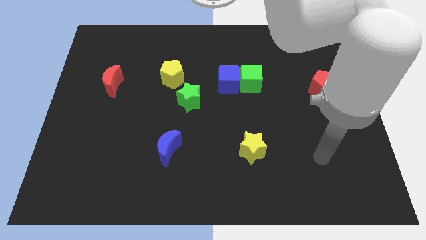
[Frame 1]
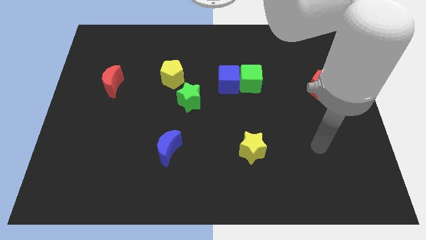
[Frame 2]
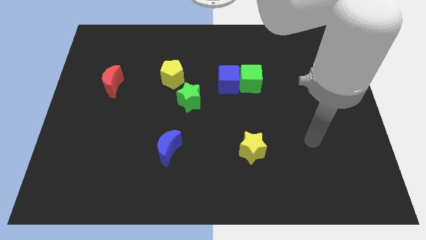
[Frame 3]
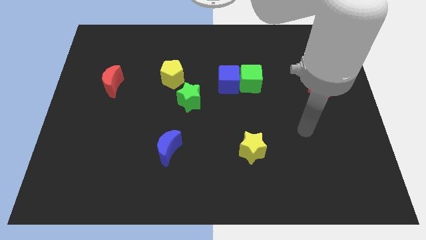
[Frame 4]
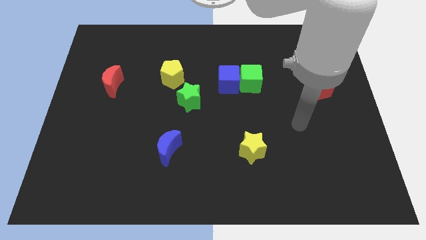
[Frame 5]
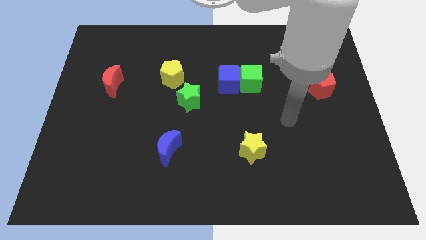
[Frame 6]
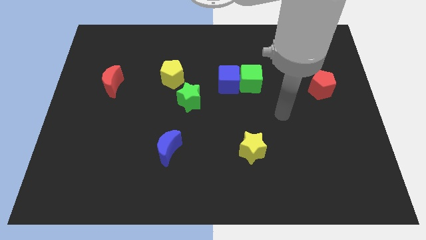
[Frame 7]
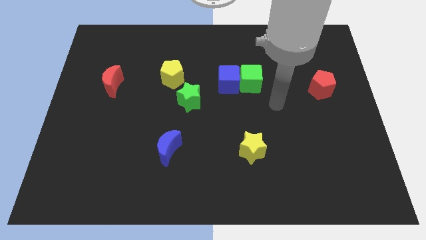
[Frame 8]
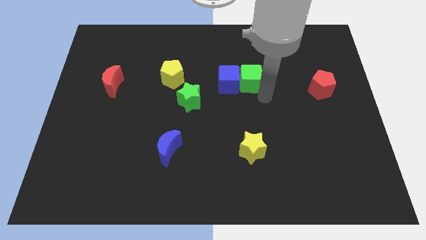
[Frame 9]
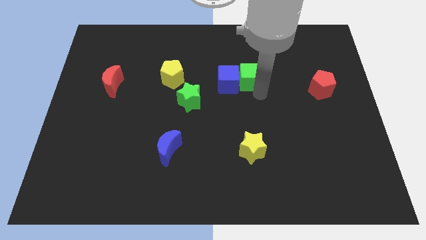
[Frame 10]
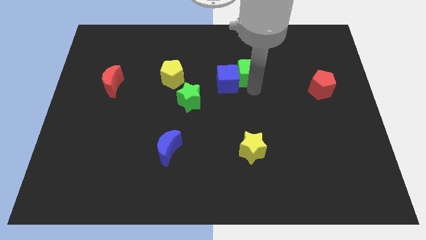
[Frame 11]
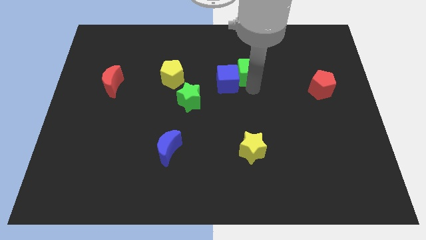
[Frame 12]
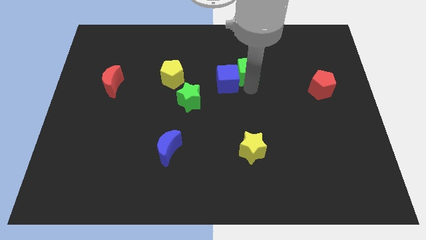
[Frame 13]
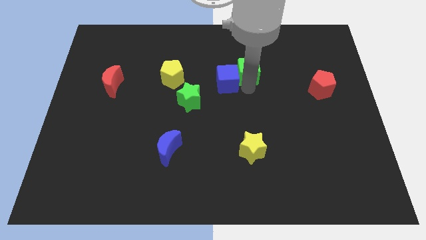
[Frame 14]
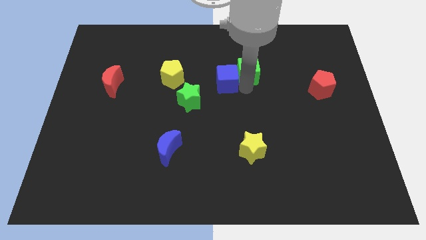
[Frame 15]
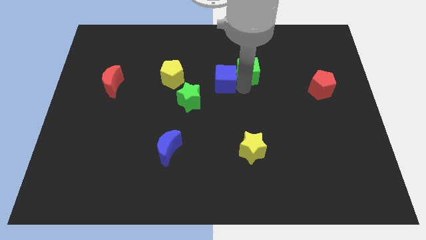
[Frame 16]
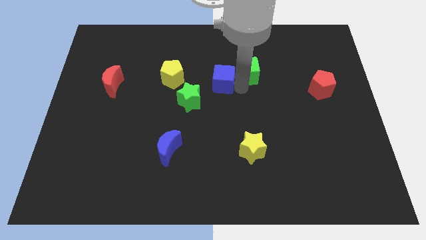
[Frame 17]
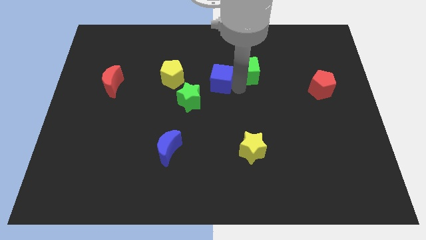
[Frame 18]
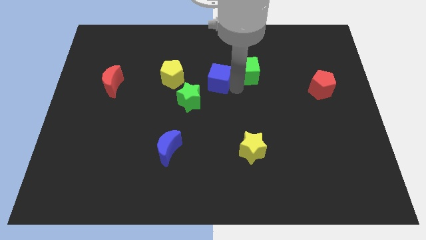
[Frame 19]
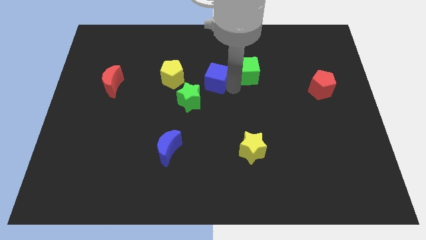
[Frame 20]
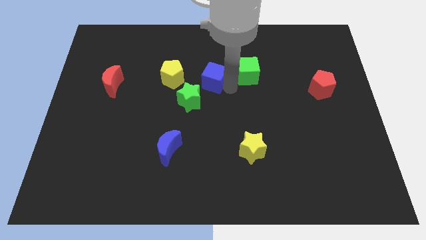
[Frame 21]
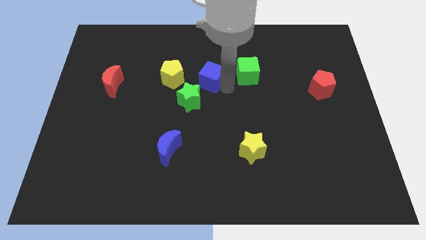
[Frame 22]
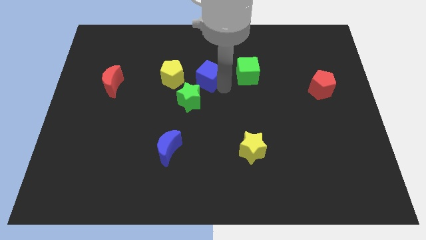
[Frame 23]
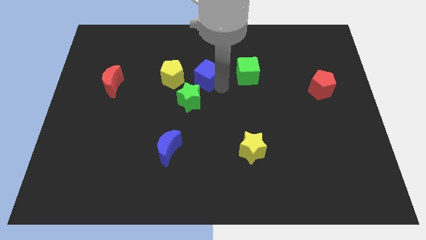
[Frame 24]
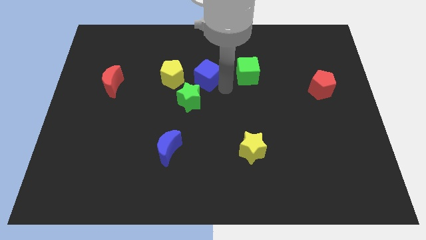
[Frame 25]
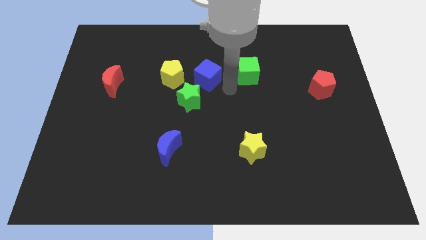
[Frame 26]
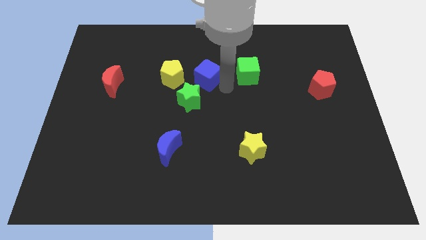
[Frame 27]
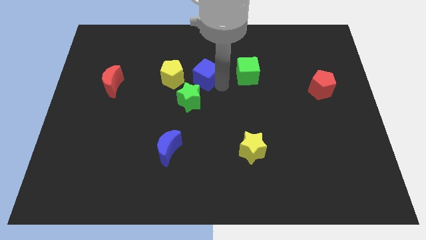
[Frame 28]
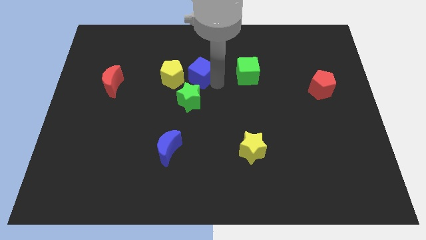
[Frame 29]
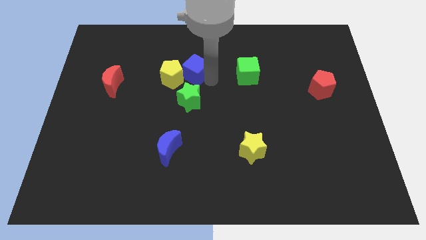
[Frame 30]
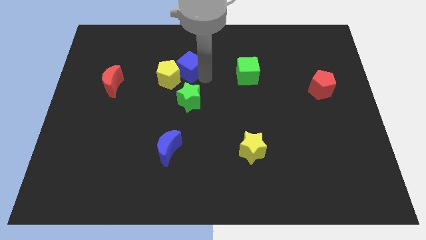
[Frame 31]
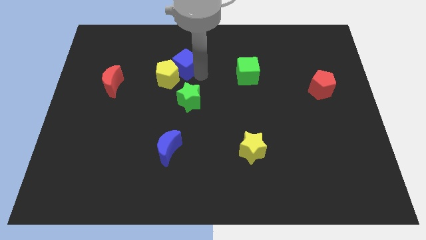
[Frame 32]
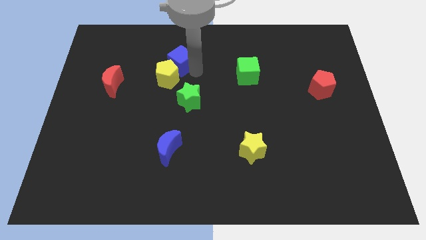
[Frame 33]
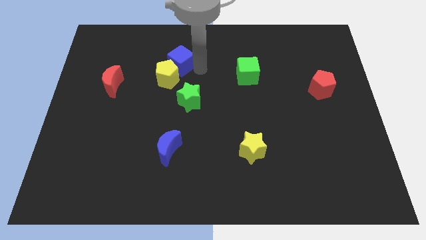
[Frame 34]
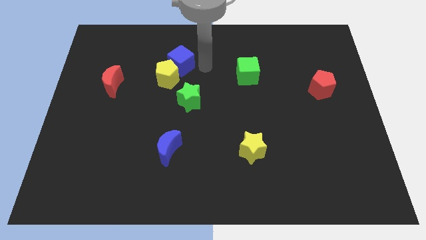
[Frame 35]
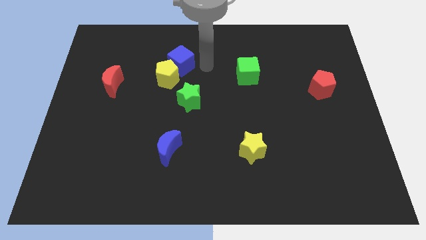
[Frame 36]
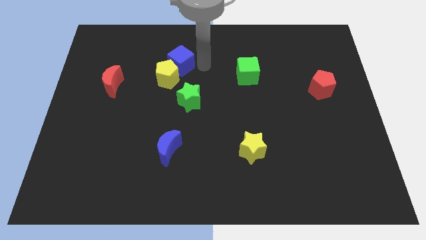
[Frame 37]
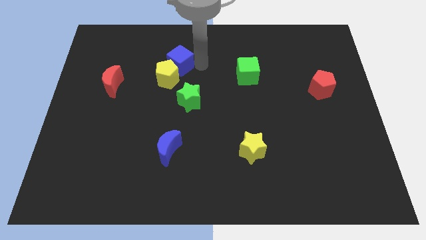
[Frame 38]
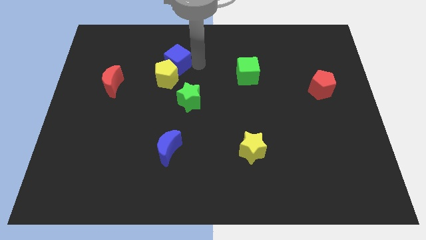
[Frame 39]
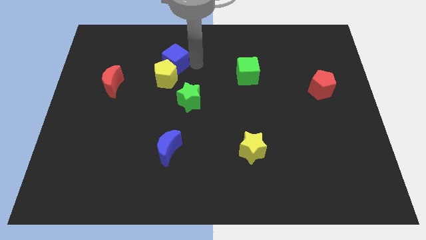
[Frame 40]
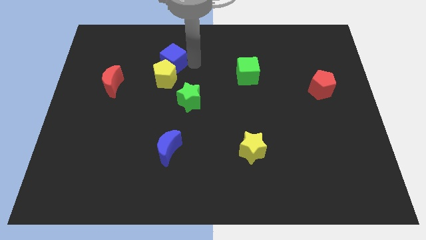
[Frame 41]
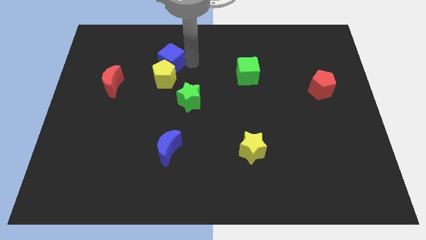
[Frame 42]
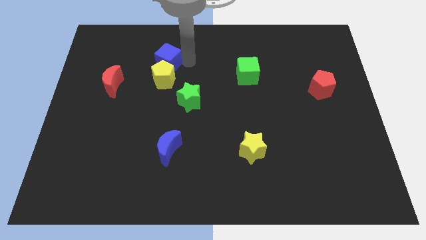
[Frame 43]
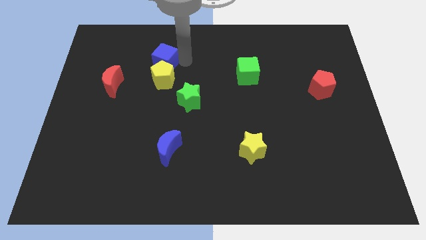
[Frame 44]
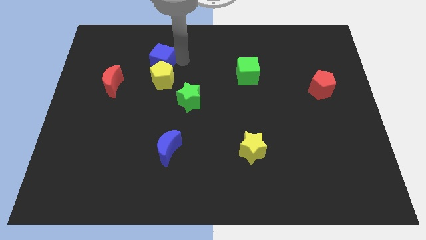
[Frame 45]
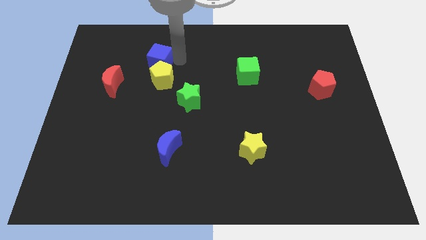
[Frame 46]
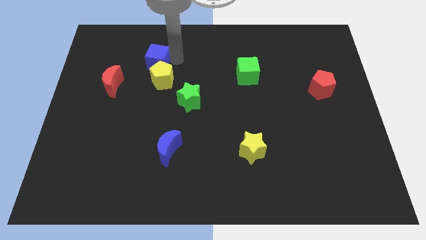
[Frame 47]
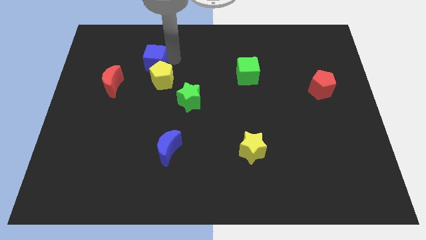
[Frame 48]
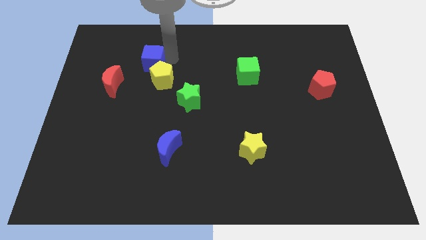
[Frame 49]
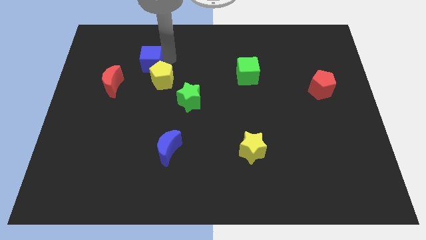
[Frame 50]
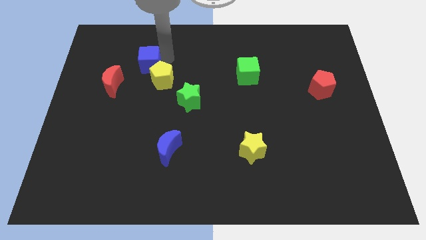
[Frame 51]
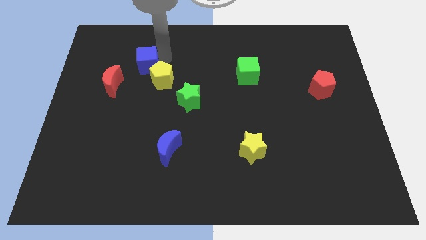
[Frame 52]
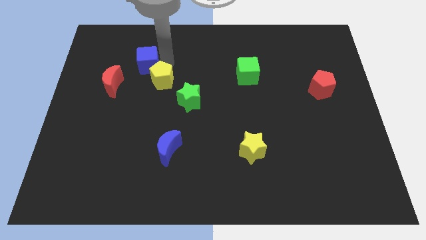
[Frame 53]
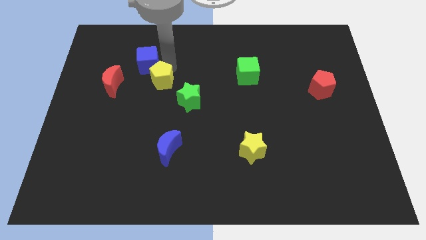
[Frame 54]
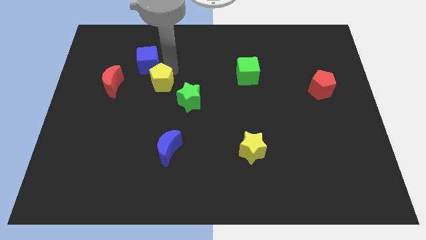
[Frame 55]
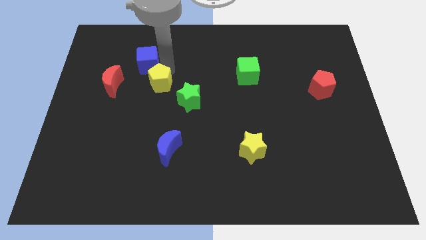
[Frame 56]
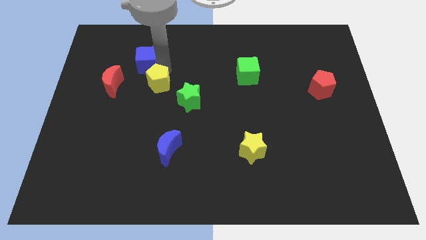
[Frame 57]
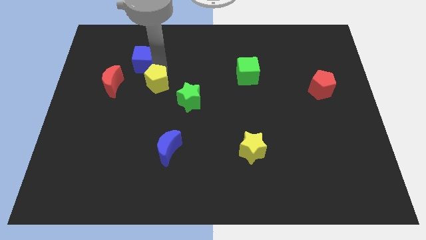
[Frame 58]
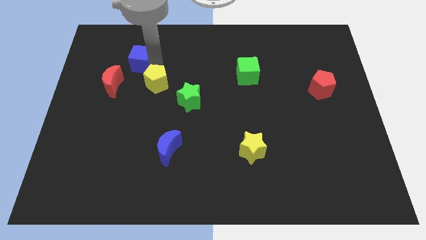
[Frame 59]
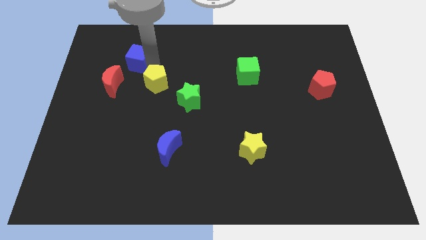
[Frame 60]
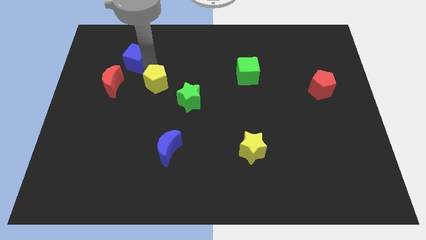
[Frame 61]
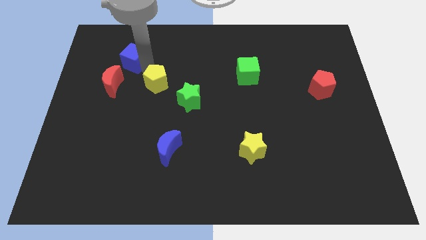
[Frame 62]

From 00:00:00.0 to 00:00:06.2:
slide the blue cube to the top of the red moon

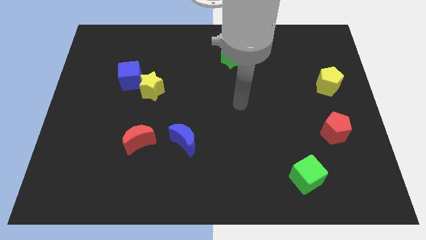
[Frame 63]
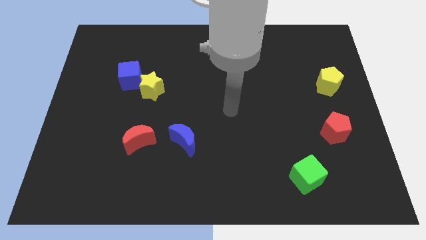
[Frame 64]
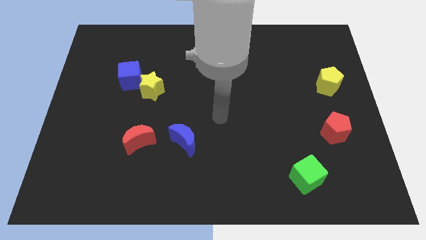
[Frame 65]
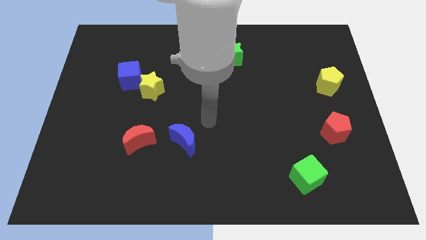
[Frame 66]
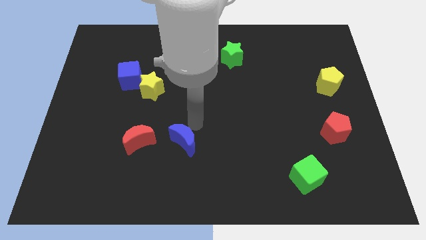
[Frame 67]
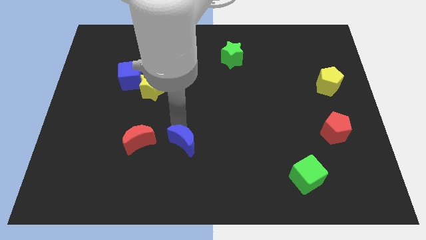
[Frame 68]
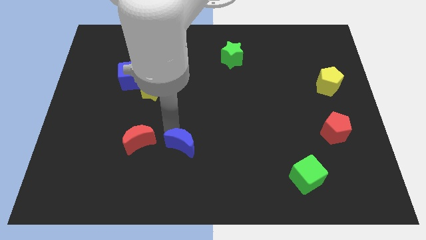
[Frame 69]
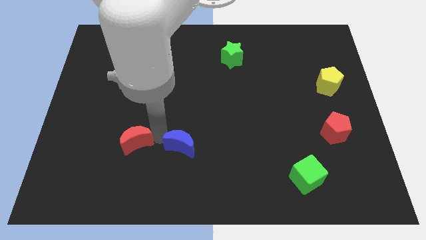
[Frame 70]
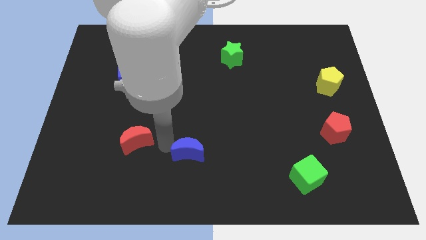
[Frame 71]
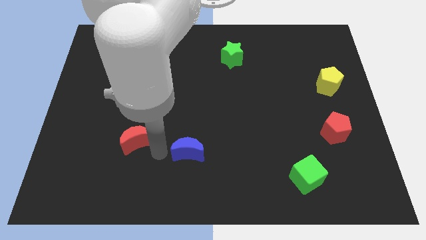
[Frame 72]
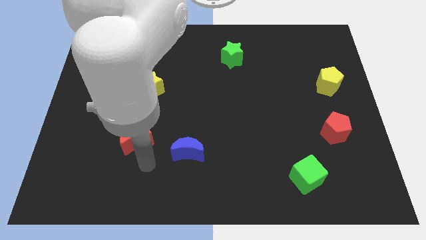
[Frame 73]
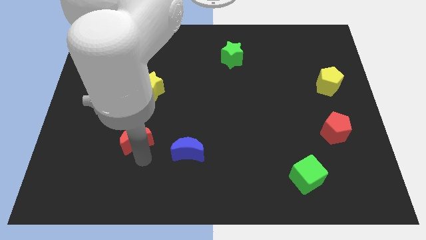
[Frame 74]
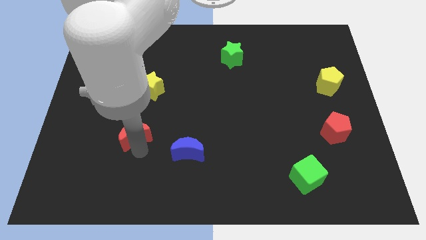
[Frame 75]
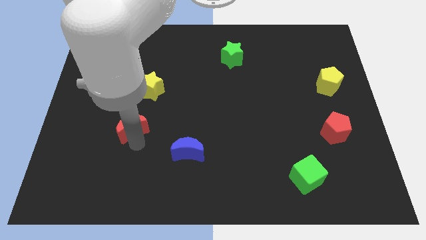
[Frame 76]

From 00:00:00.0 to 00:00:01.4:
put the red moon below the blue cube
